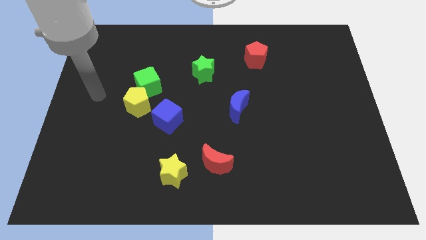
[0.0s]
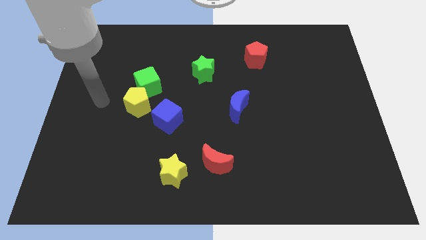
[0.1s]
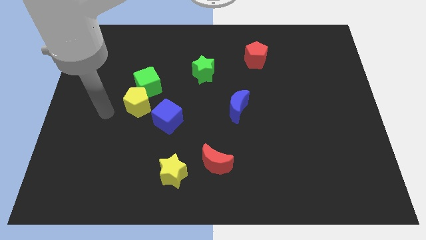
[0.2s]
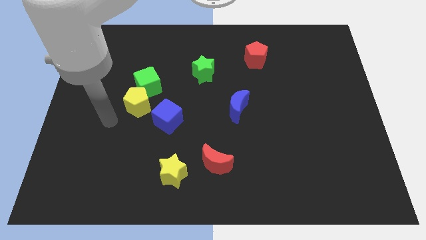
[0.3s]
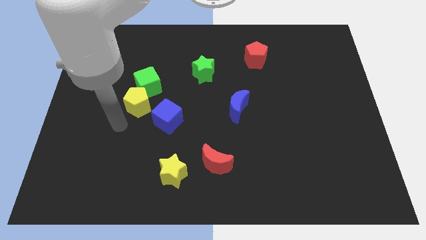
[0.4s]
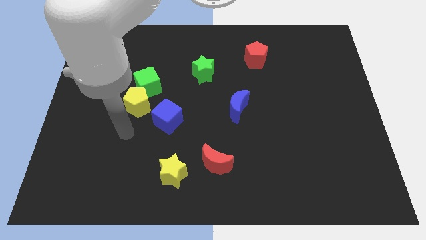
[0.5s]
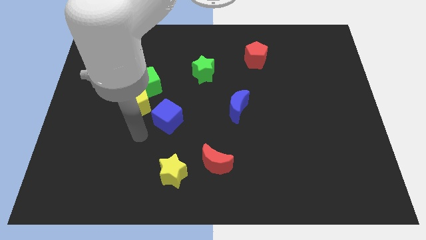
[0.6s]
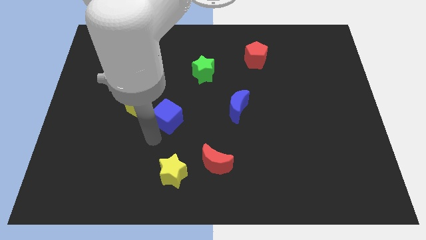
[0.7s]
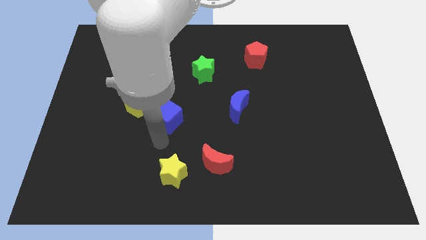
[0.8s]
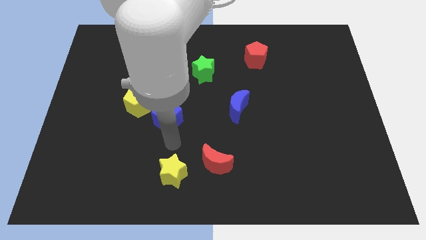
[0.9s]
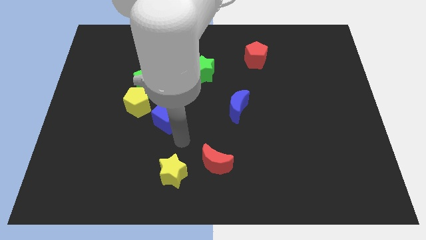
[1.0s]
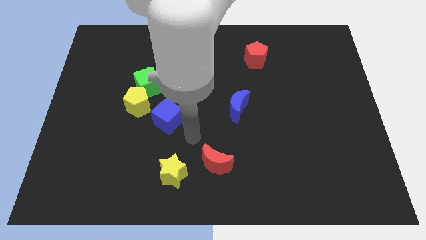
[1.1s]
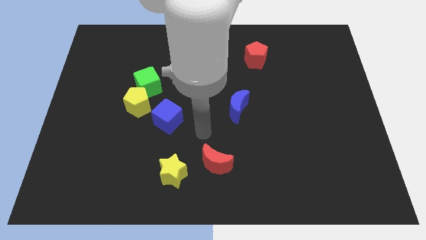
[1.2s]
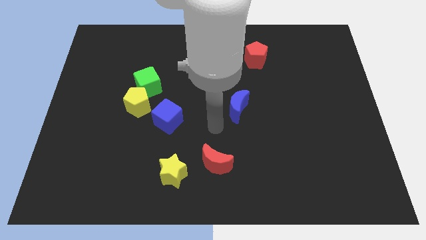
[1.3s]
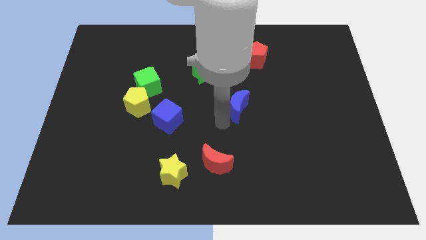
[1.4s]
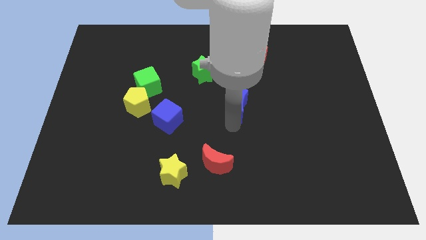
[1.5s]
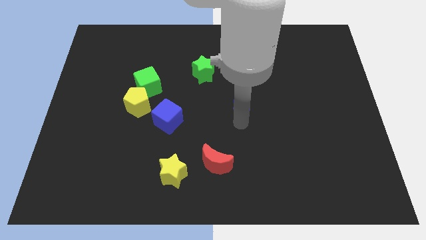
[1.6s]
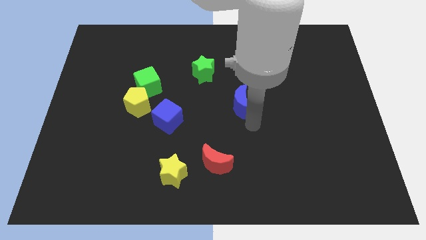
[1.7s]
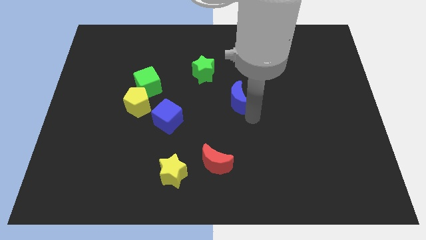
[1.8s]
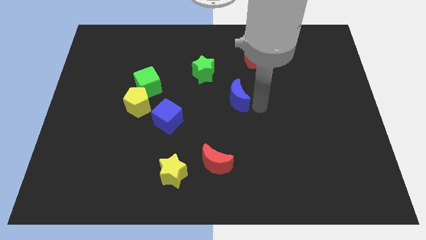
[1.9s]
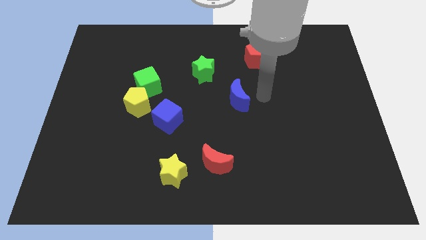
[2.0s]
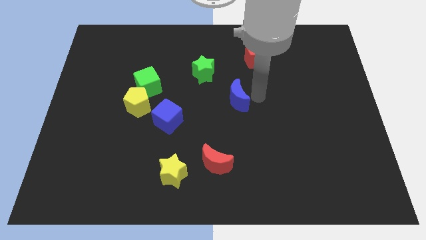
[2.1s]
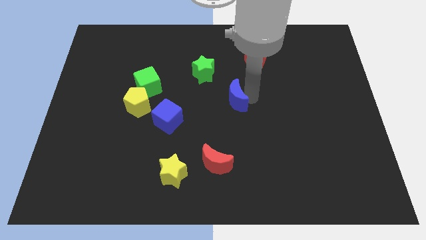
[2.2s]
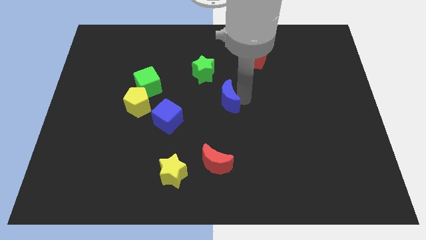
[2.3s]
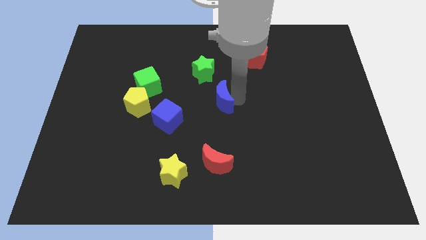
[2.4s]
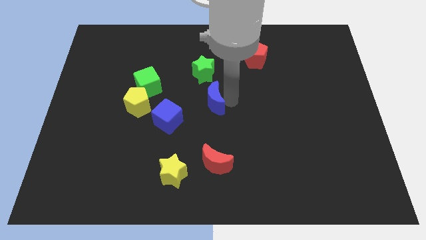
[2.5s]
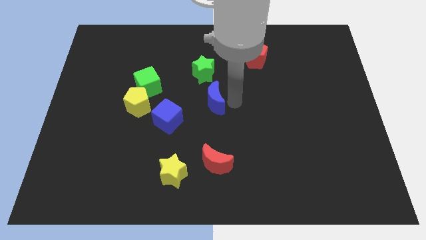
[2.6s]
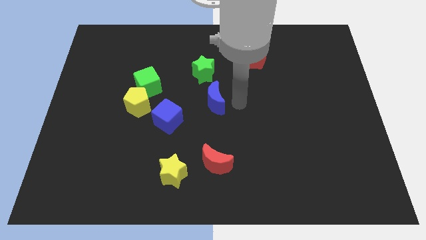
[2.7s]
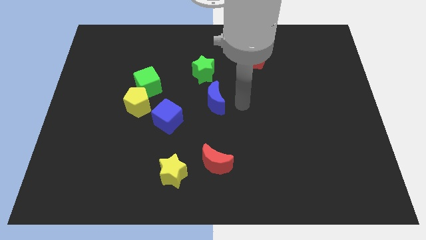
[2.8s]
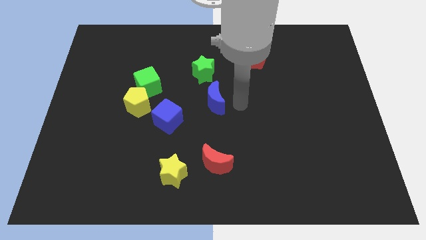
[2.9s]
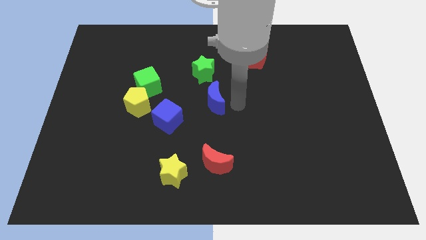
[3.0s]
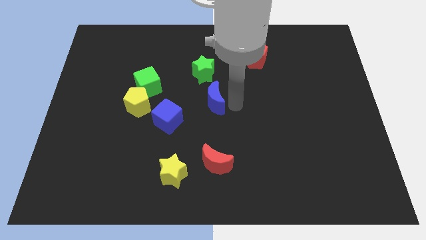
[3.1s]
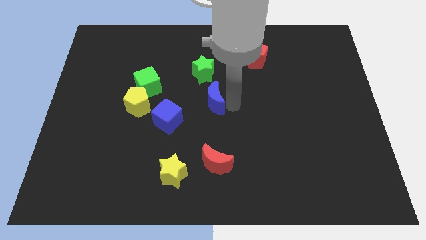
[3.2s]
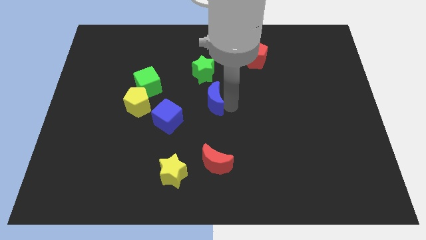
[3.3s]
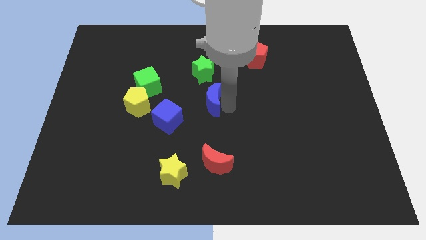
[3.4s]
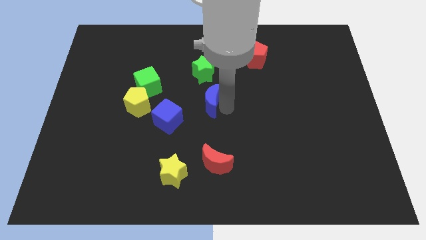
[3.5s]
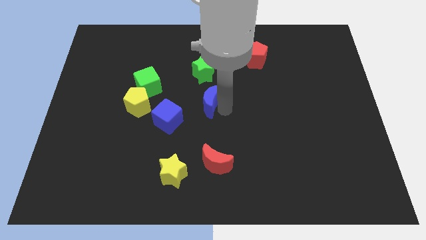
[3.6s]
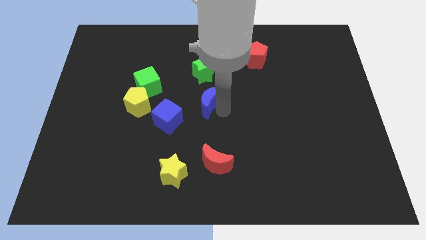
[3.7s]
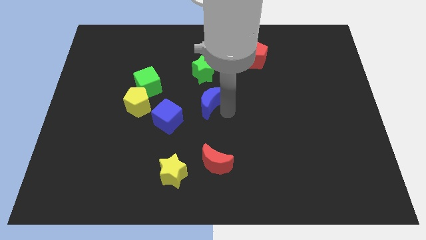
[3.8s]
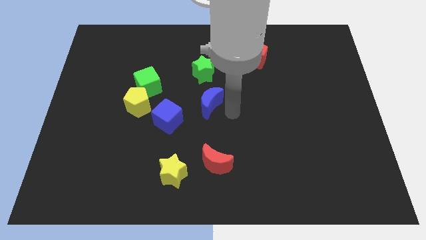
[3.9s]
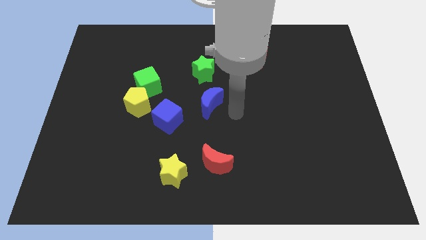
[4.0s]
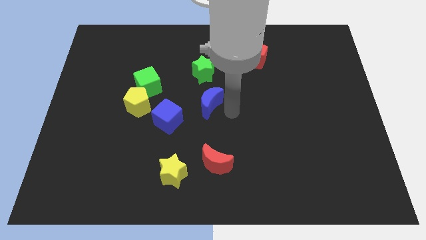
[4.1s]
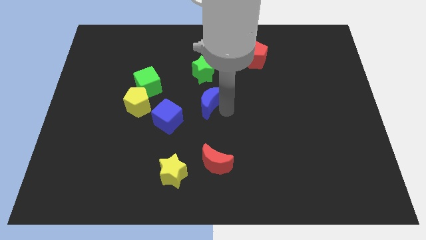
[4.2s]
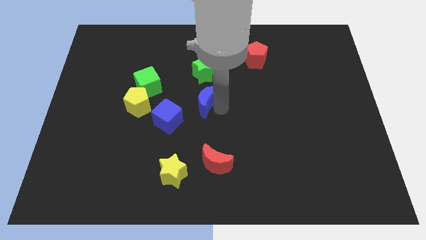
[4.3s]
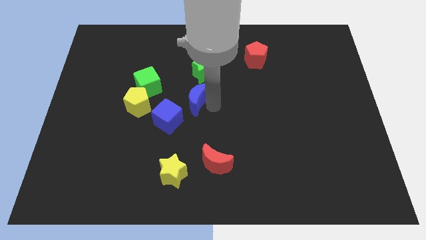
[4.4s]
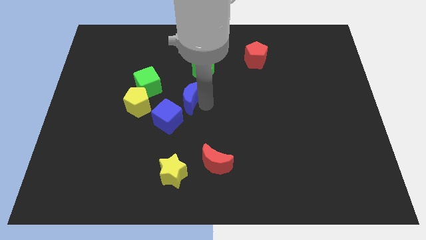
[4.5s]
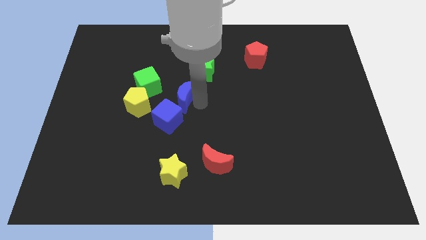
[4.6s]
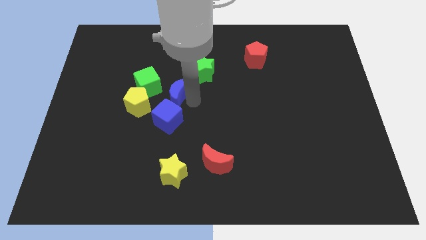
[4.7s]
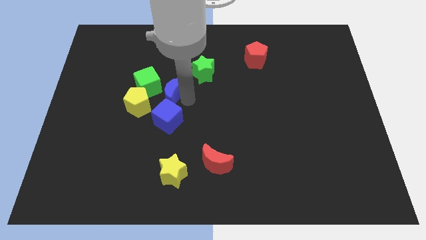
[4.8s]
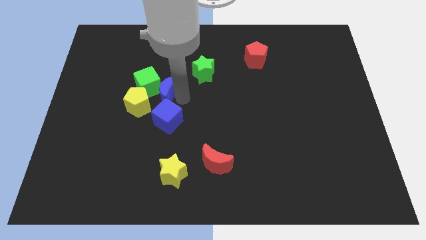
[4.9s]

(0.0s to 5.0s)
move the blue moon to the green cube

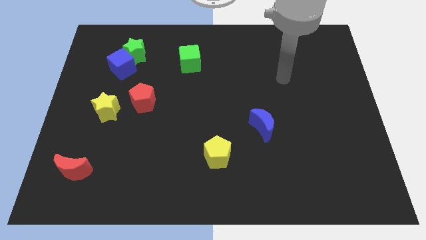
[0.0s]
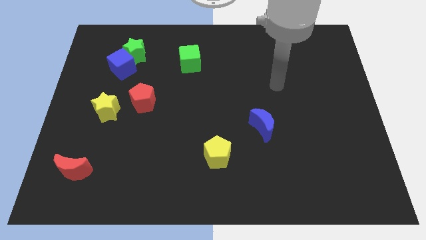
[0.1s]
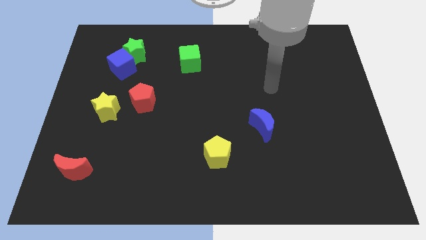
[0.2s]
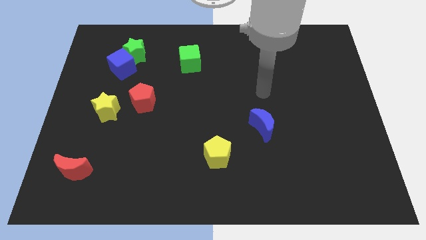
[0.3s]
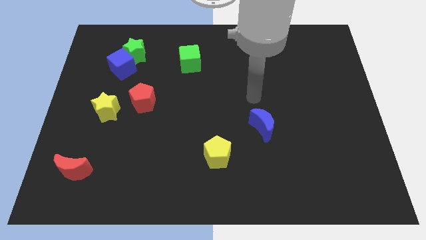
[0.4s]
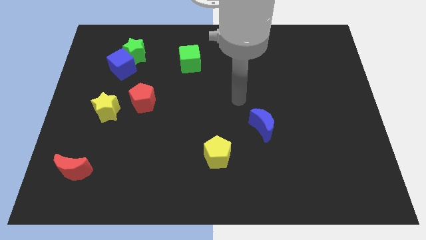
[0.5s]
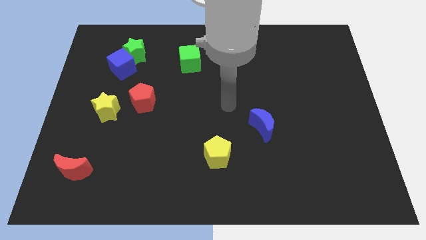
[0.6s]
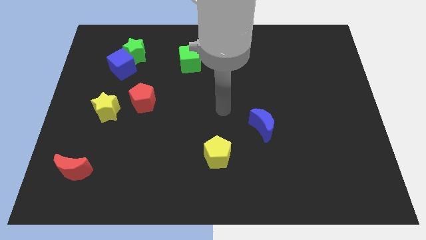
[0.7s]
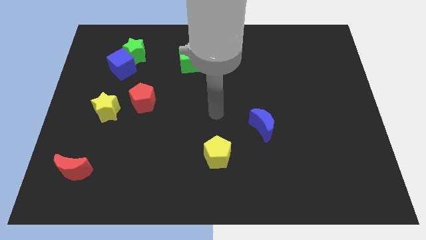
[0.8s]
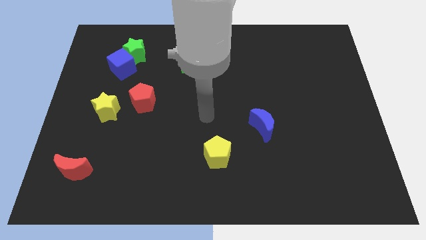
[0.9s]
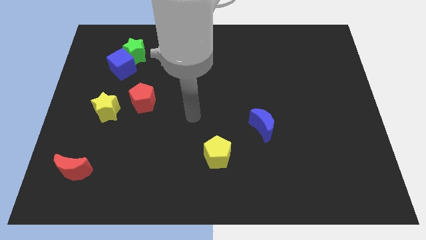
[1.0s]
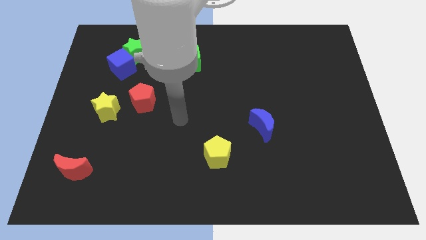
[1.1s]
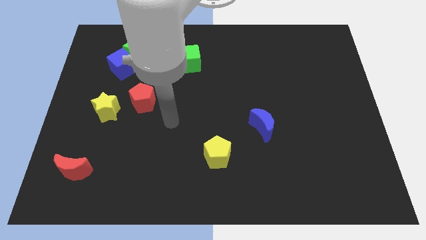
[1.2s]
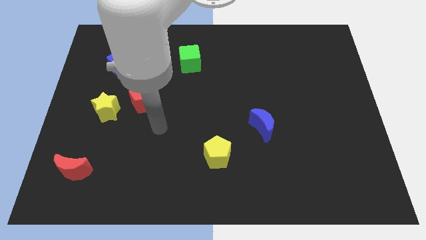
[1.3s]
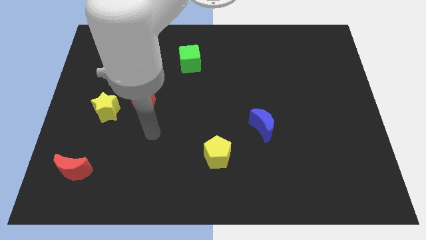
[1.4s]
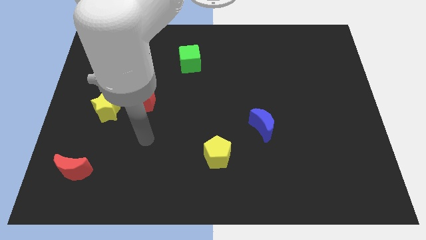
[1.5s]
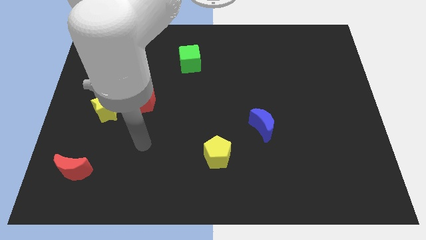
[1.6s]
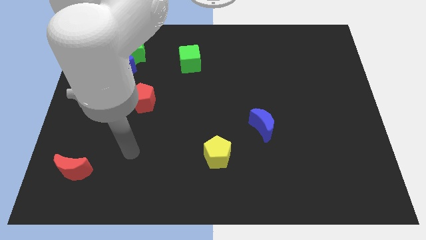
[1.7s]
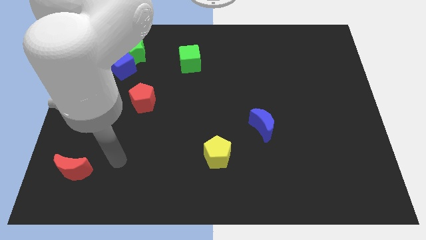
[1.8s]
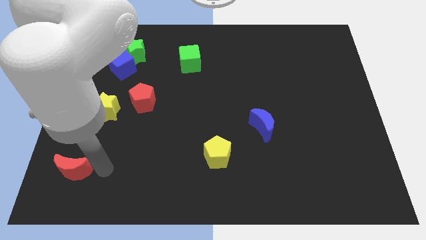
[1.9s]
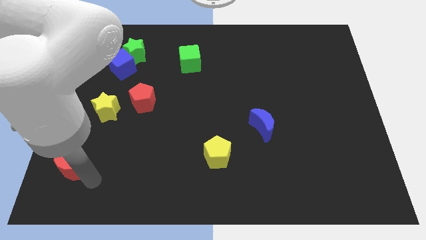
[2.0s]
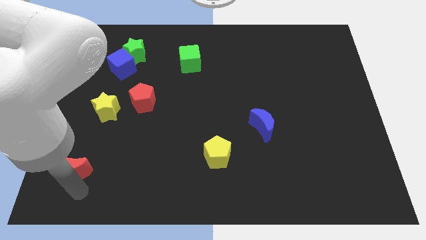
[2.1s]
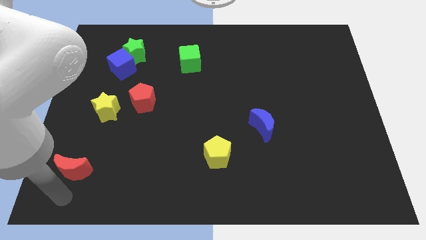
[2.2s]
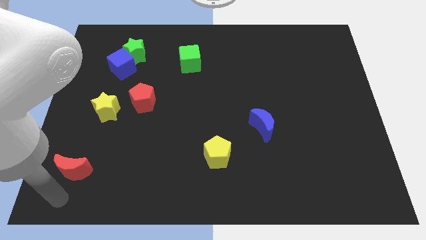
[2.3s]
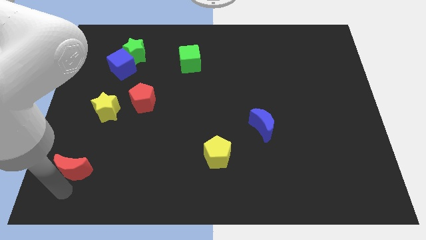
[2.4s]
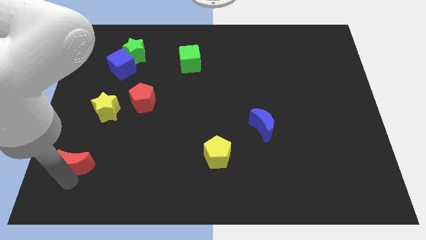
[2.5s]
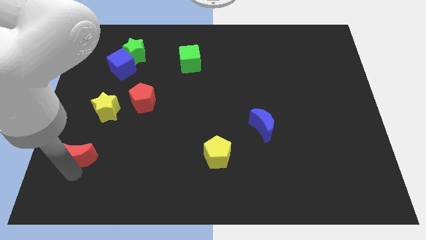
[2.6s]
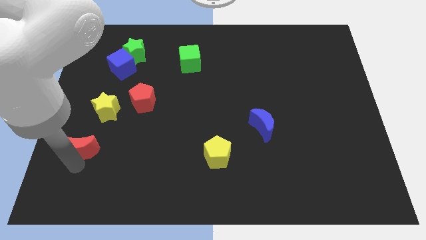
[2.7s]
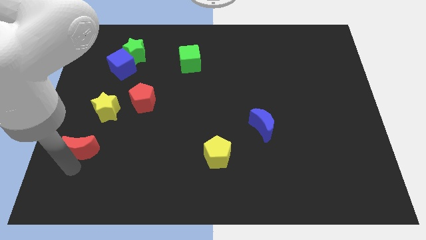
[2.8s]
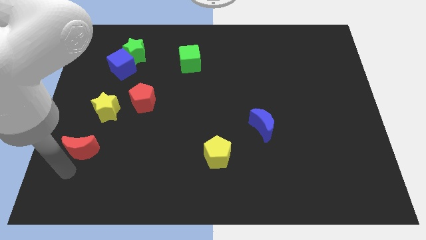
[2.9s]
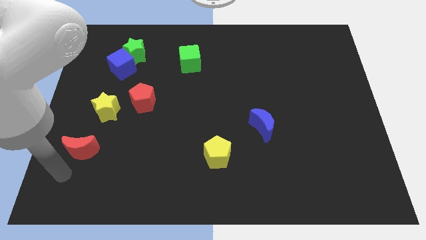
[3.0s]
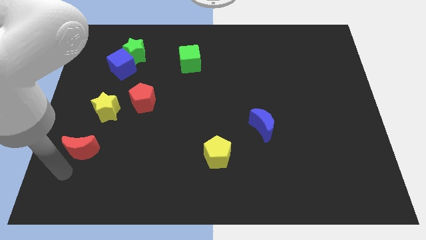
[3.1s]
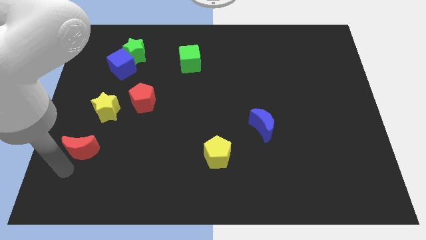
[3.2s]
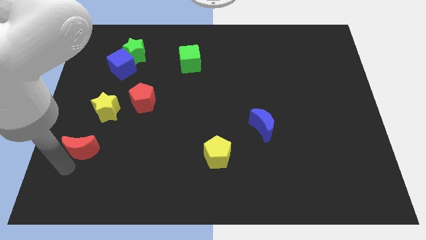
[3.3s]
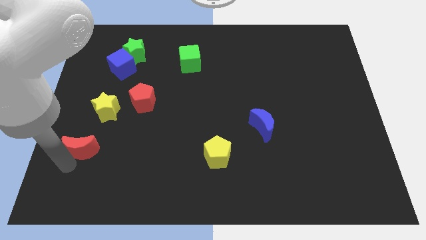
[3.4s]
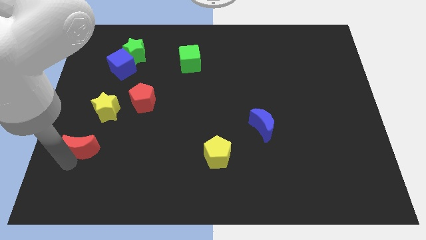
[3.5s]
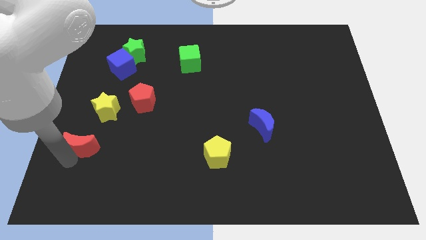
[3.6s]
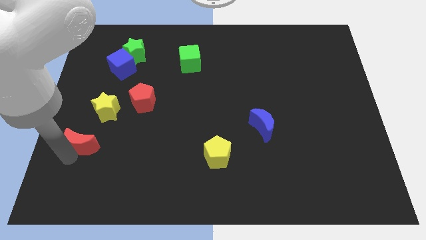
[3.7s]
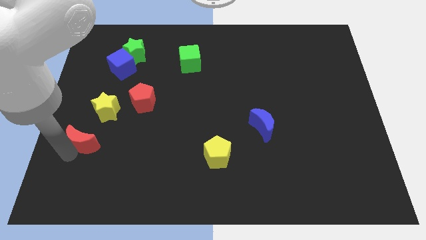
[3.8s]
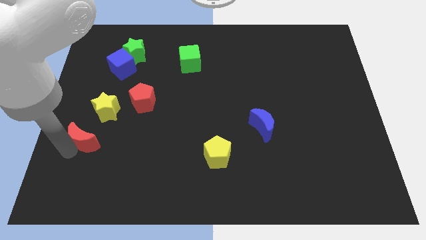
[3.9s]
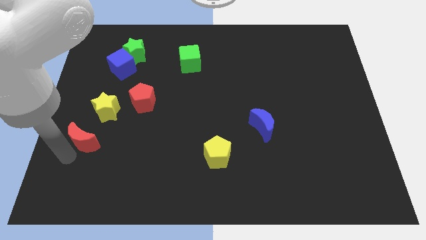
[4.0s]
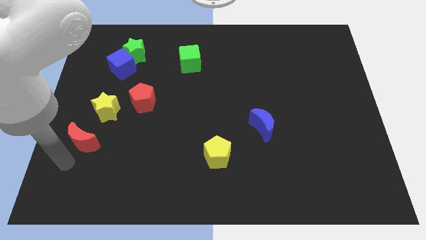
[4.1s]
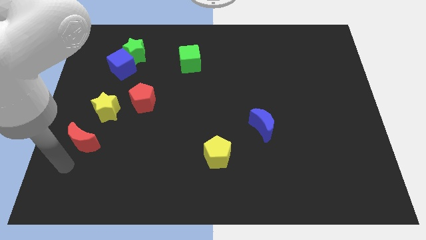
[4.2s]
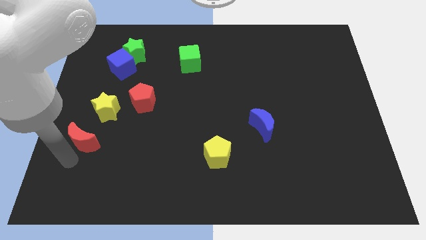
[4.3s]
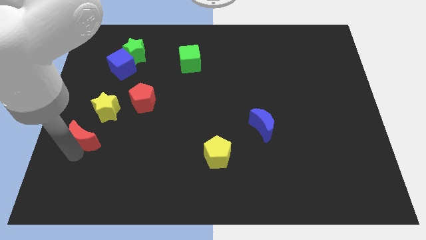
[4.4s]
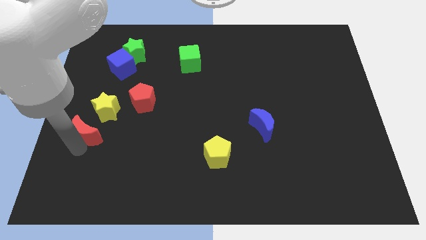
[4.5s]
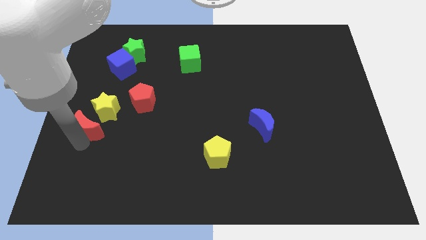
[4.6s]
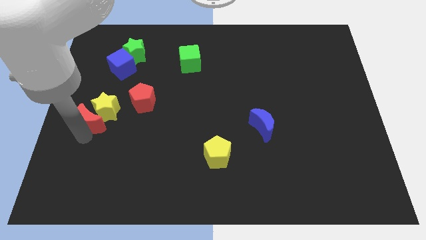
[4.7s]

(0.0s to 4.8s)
push the red moon towards the yellow star
